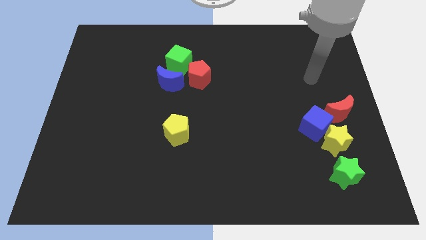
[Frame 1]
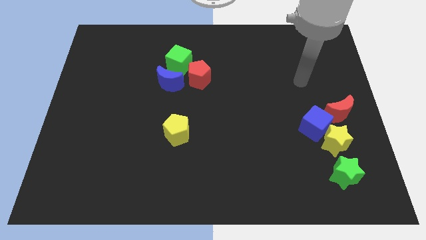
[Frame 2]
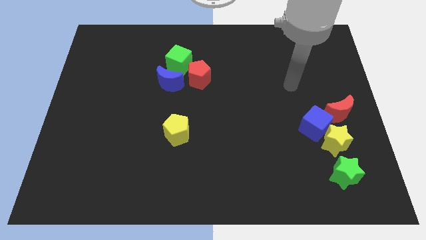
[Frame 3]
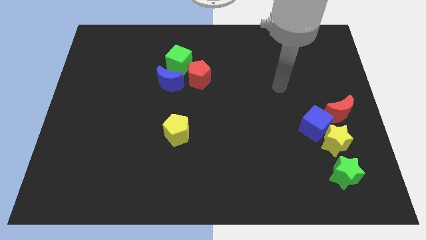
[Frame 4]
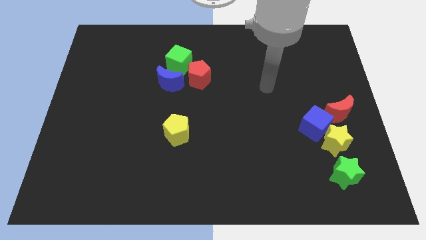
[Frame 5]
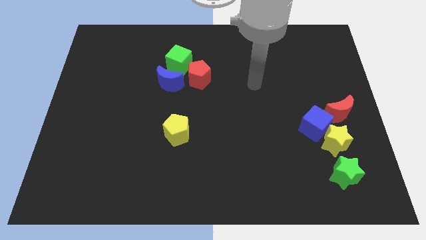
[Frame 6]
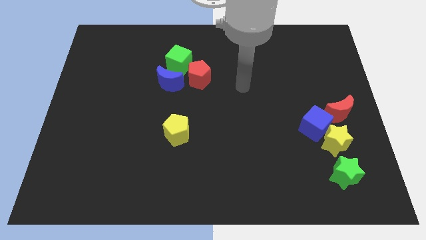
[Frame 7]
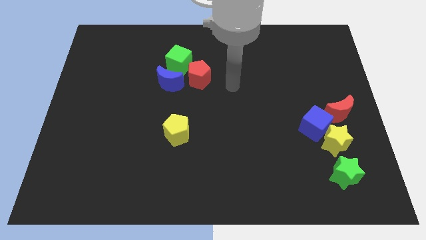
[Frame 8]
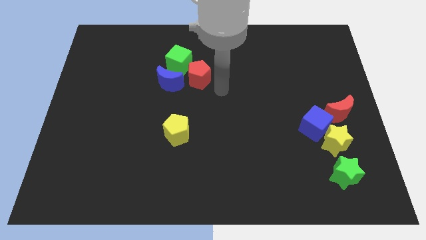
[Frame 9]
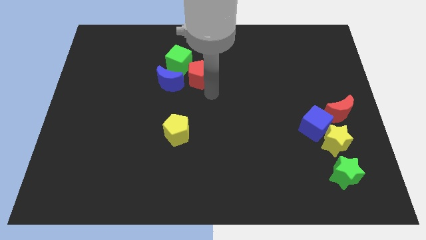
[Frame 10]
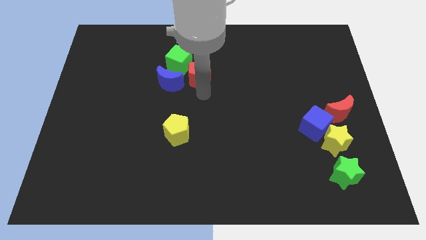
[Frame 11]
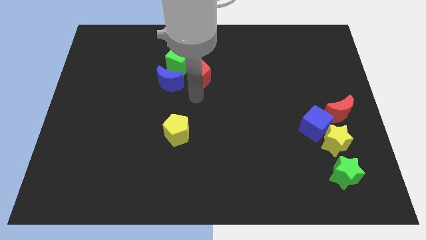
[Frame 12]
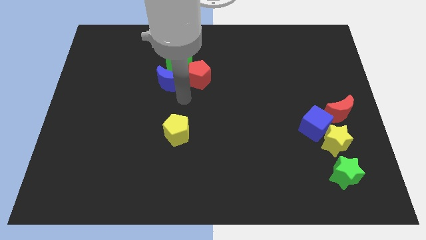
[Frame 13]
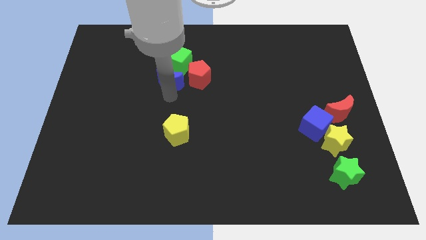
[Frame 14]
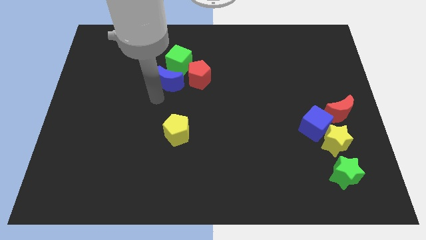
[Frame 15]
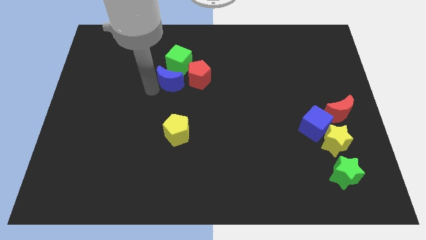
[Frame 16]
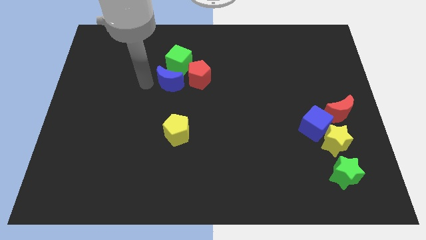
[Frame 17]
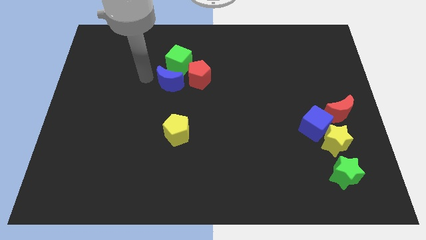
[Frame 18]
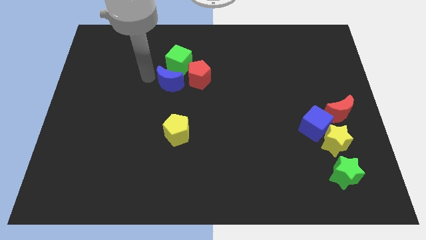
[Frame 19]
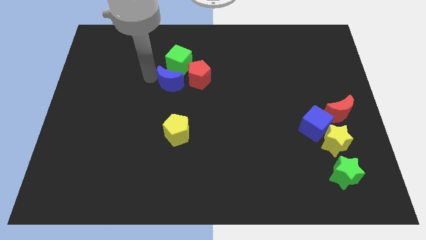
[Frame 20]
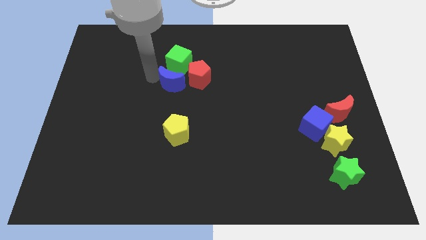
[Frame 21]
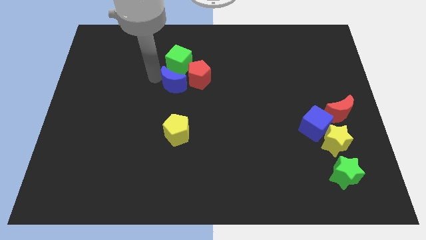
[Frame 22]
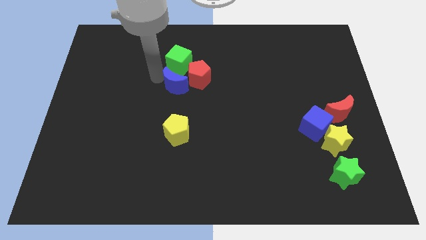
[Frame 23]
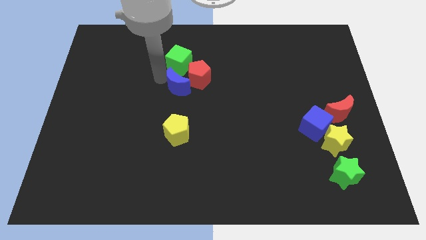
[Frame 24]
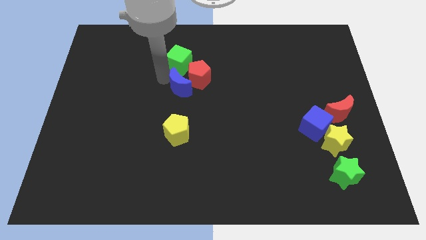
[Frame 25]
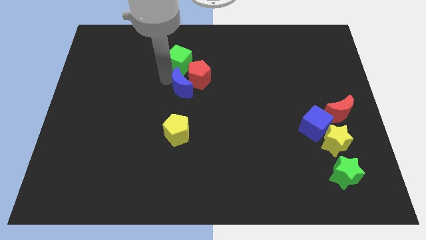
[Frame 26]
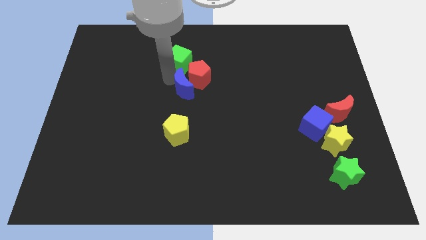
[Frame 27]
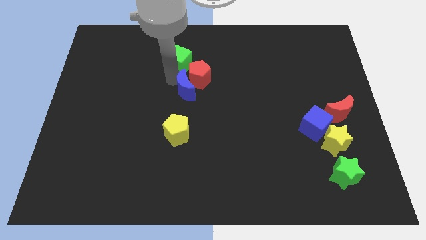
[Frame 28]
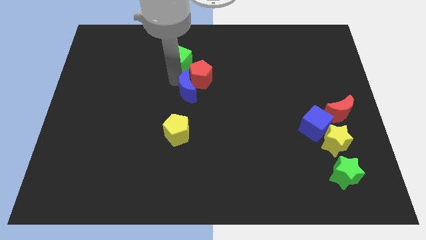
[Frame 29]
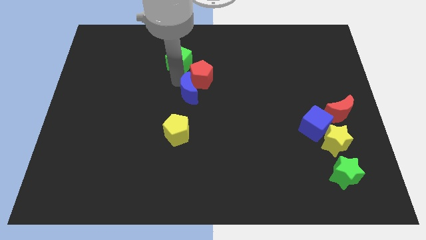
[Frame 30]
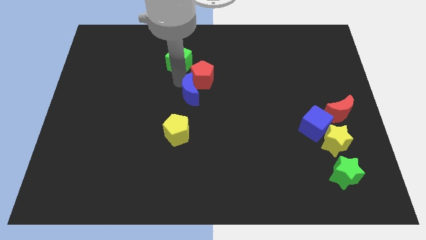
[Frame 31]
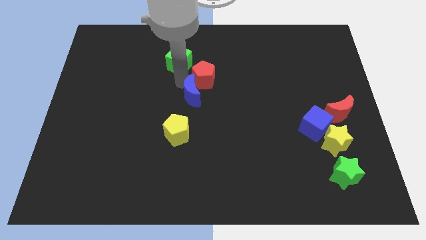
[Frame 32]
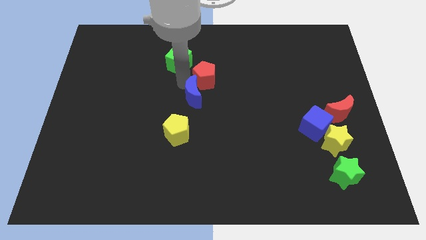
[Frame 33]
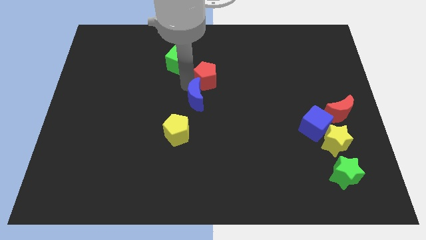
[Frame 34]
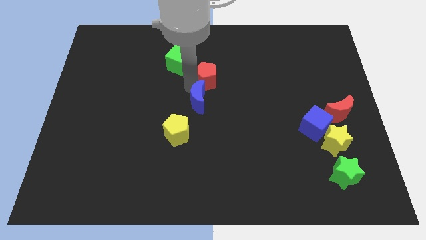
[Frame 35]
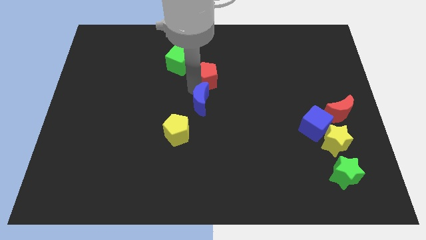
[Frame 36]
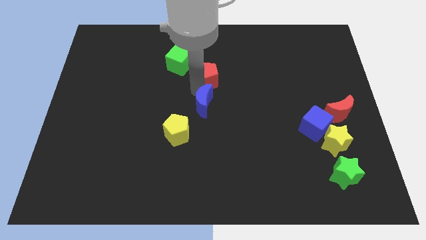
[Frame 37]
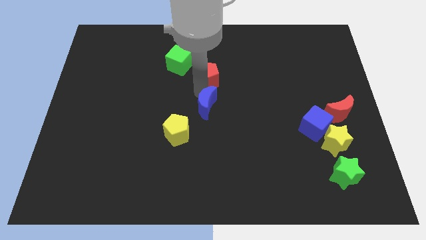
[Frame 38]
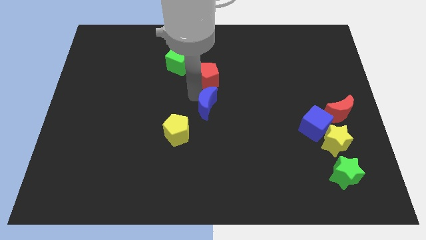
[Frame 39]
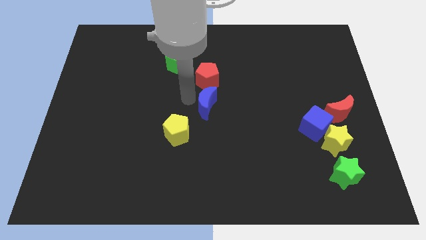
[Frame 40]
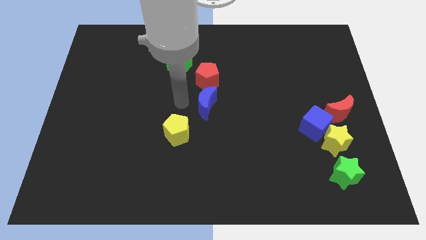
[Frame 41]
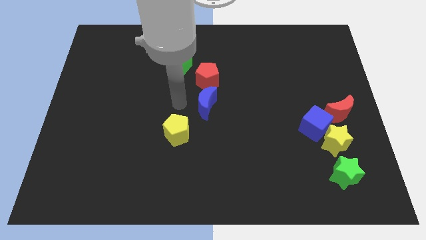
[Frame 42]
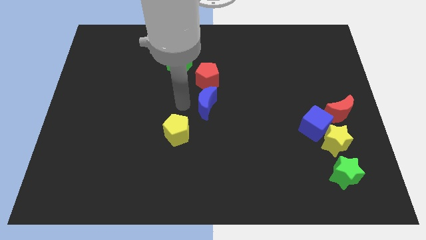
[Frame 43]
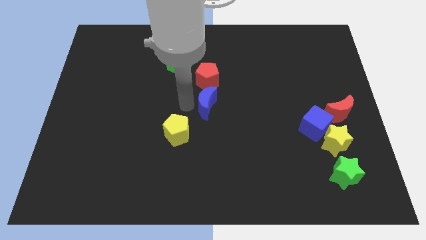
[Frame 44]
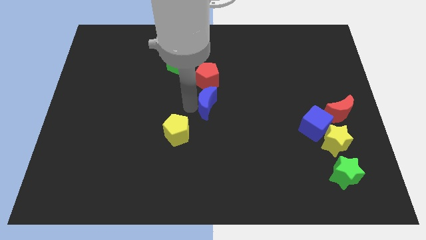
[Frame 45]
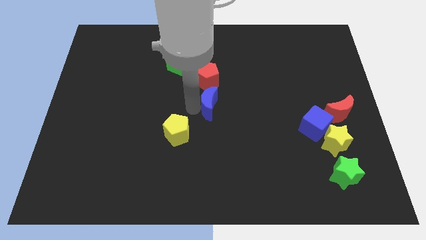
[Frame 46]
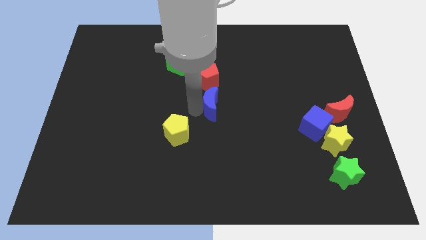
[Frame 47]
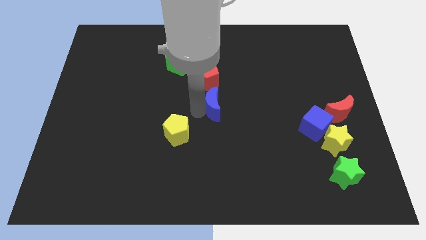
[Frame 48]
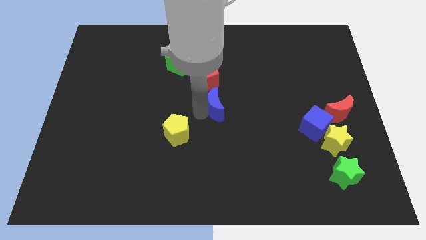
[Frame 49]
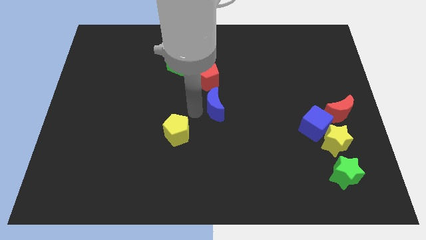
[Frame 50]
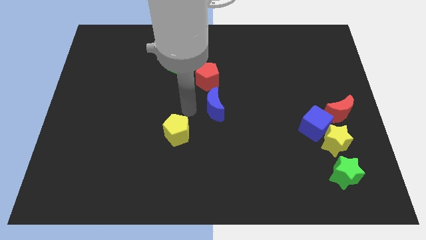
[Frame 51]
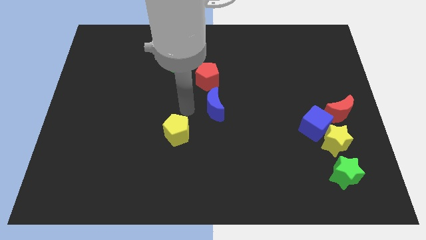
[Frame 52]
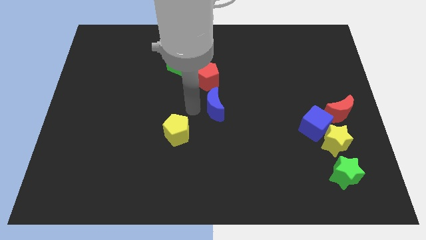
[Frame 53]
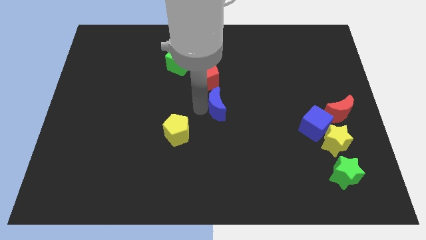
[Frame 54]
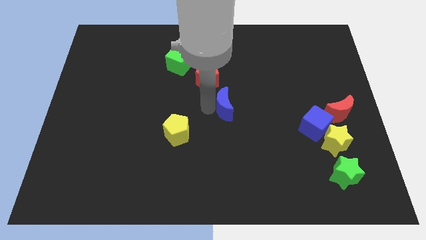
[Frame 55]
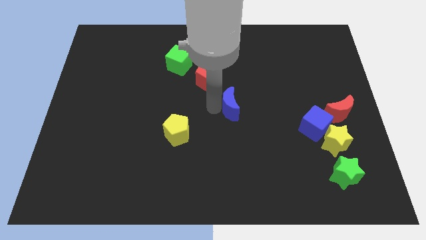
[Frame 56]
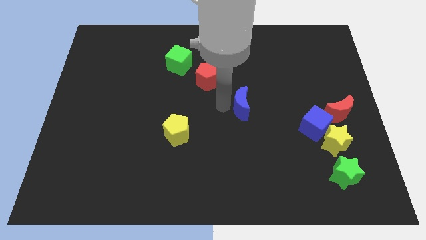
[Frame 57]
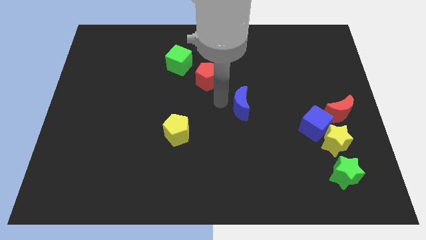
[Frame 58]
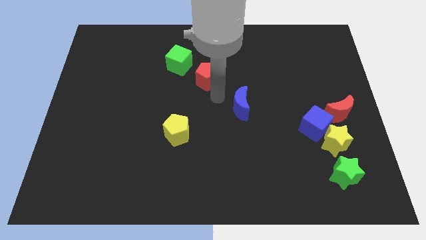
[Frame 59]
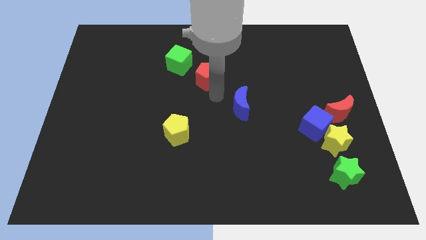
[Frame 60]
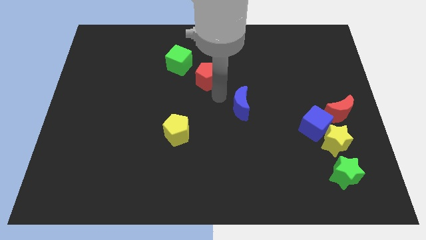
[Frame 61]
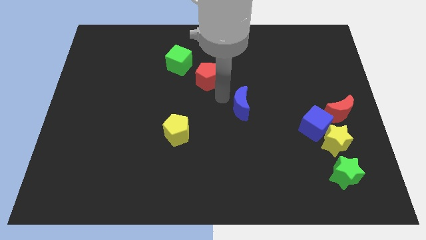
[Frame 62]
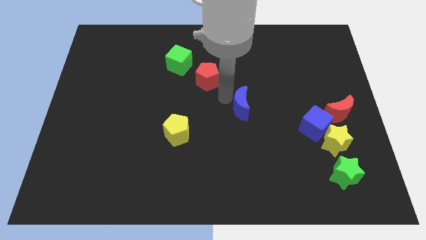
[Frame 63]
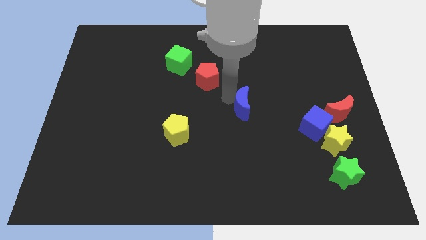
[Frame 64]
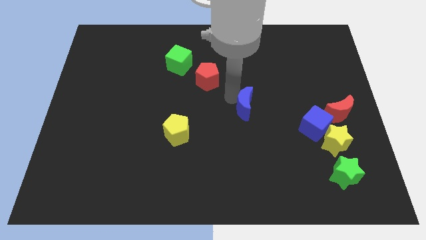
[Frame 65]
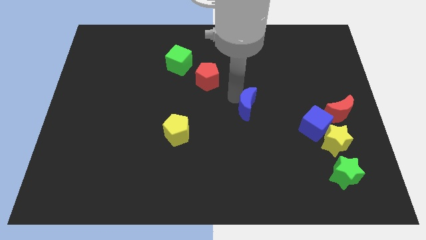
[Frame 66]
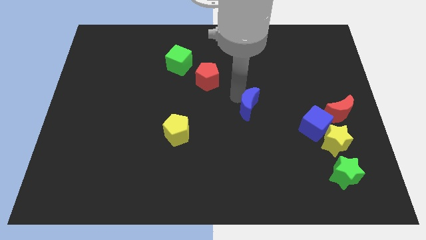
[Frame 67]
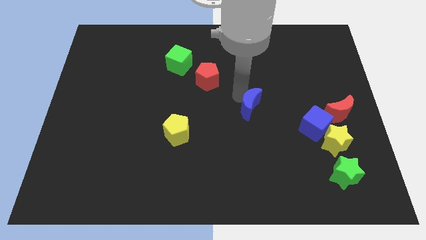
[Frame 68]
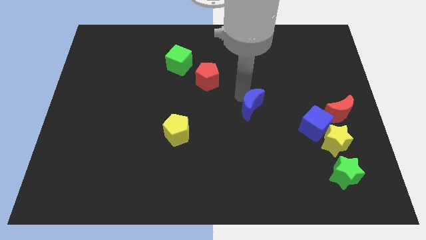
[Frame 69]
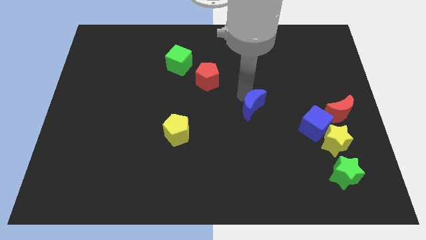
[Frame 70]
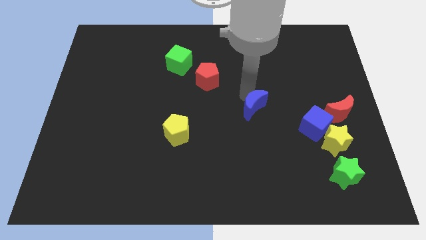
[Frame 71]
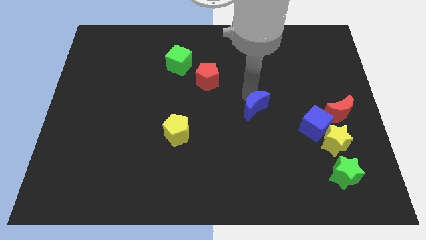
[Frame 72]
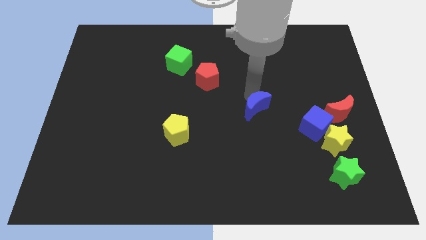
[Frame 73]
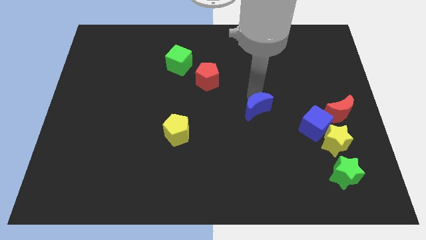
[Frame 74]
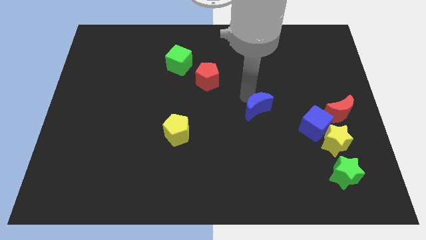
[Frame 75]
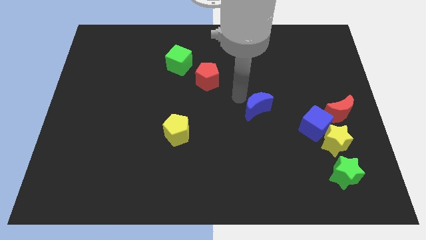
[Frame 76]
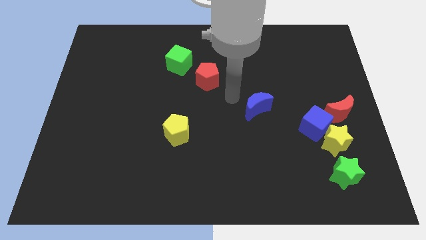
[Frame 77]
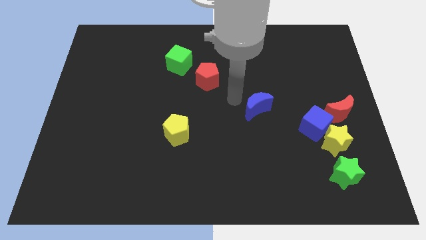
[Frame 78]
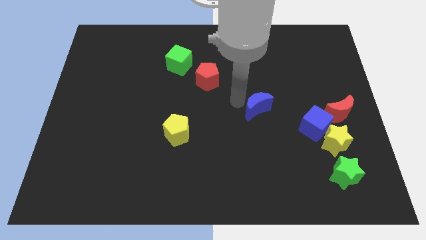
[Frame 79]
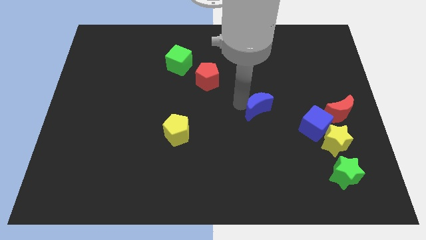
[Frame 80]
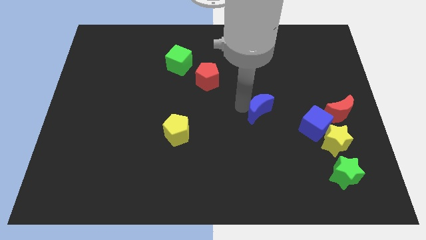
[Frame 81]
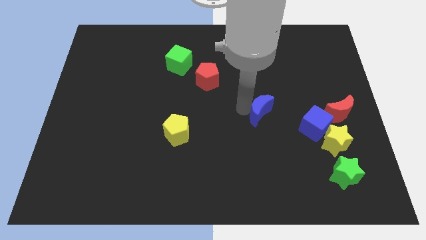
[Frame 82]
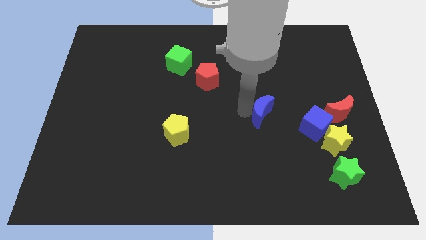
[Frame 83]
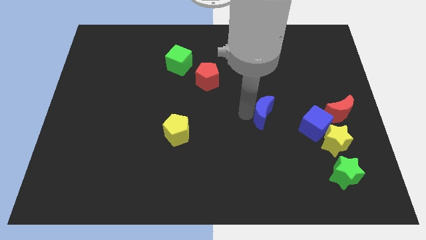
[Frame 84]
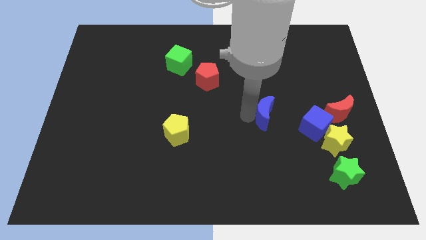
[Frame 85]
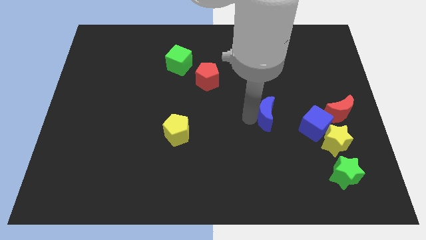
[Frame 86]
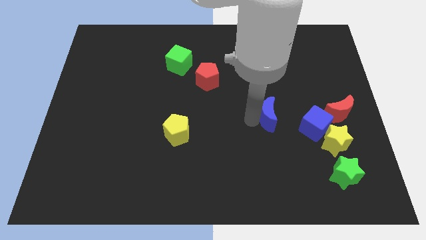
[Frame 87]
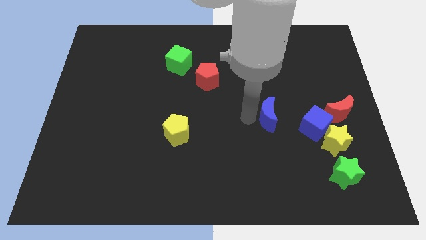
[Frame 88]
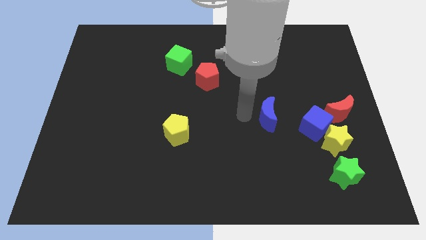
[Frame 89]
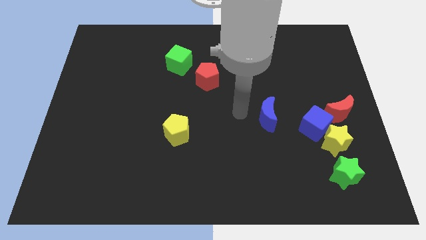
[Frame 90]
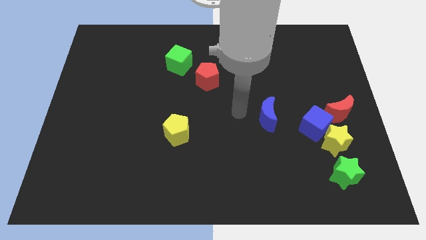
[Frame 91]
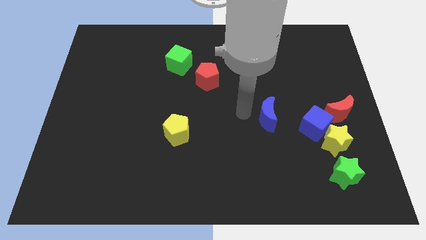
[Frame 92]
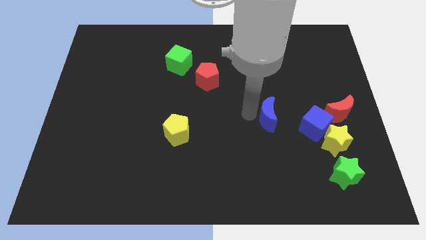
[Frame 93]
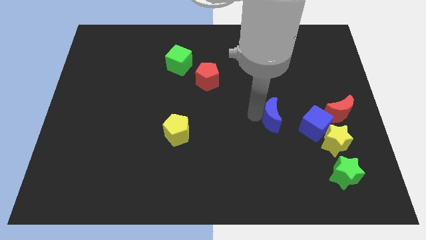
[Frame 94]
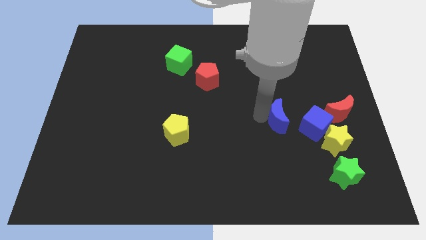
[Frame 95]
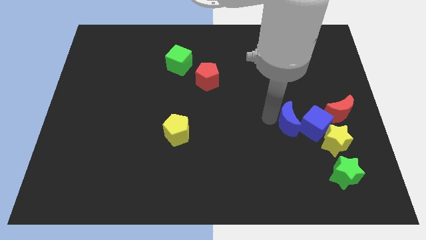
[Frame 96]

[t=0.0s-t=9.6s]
push the blue moon close to the blue cube
